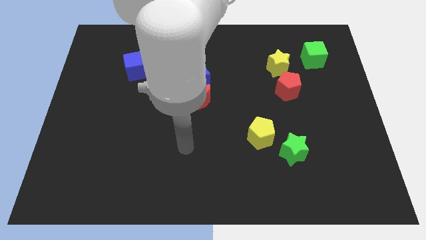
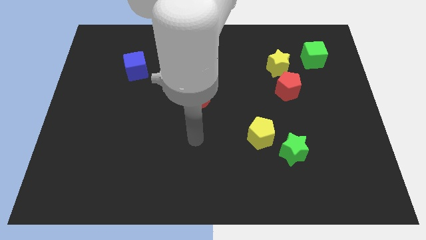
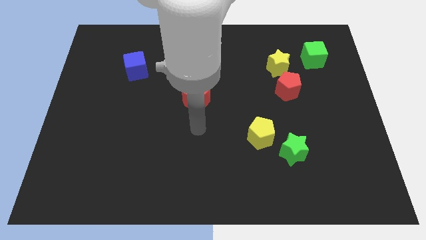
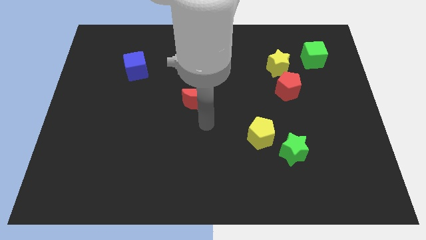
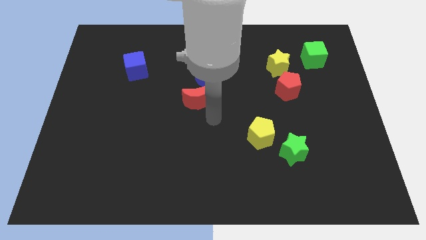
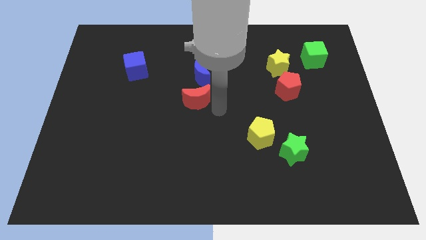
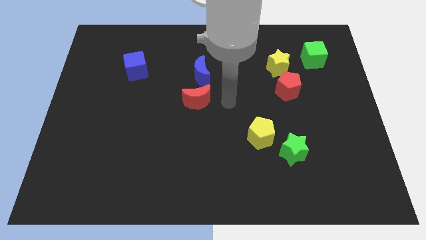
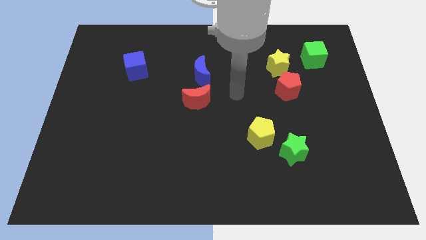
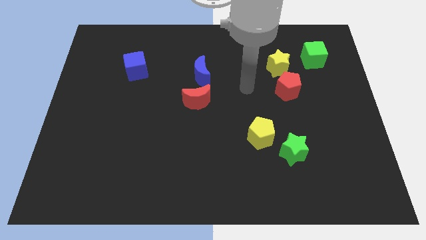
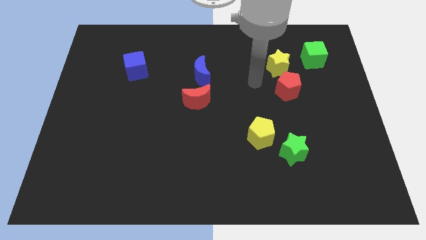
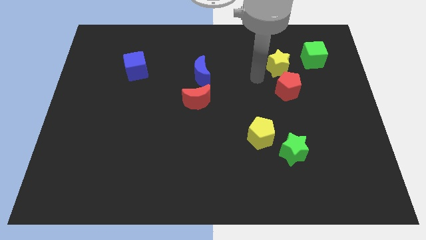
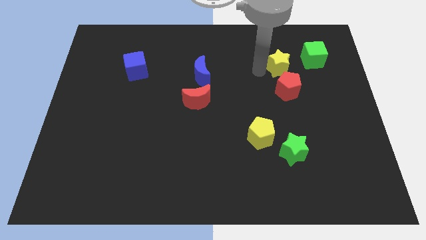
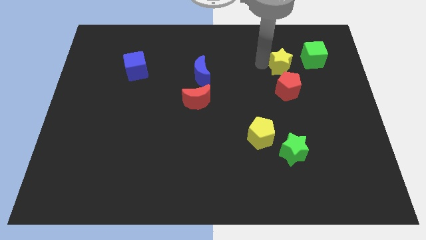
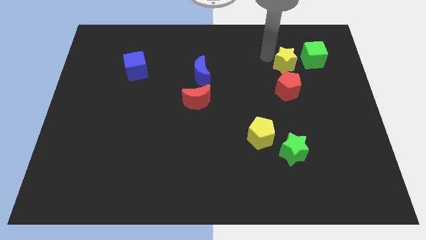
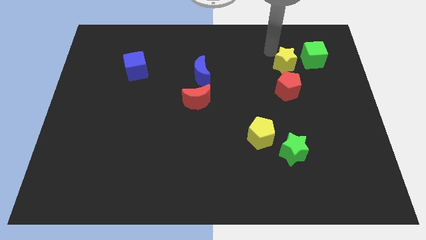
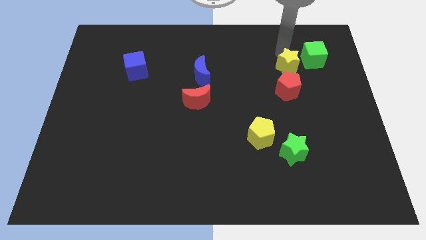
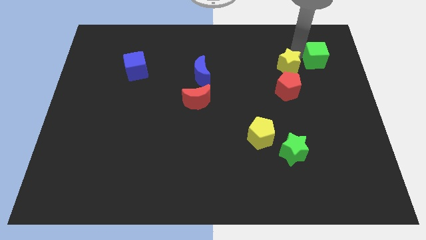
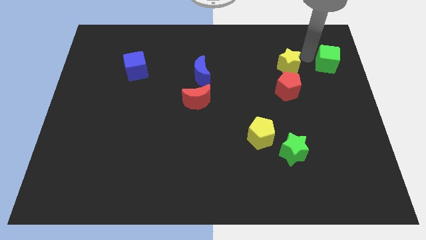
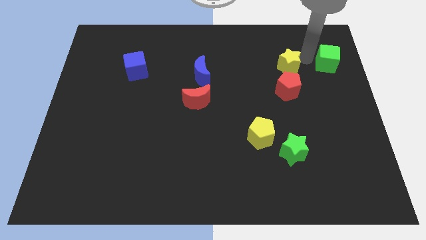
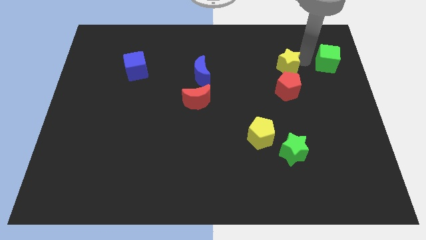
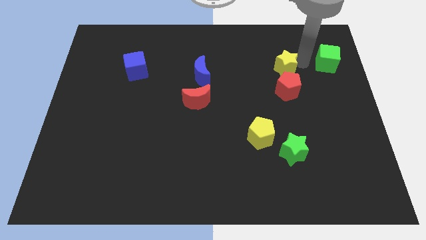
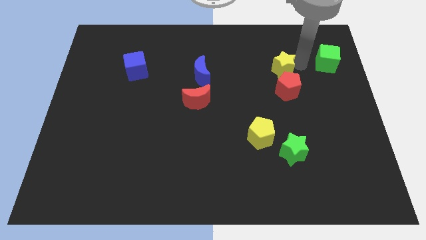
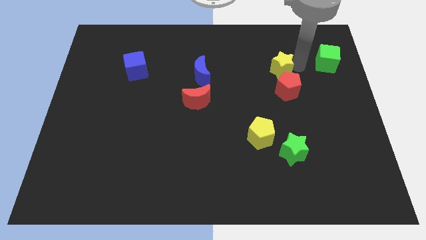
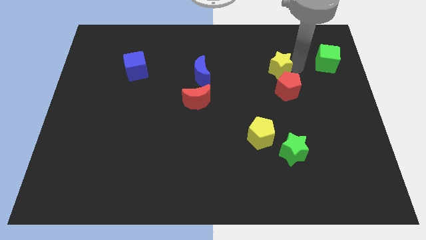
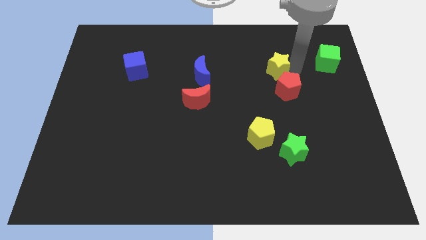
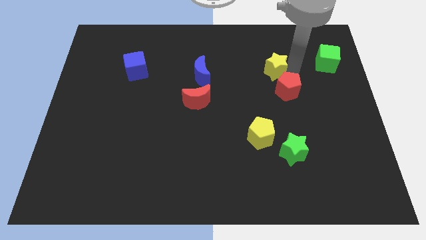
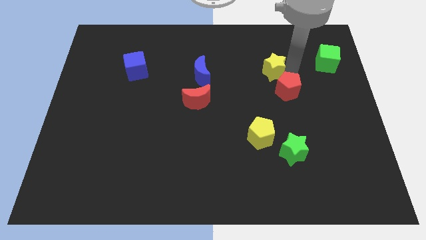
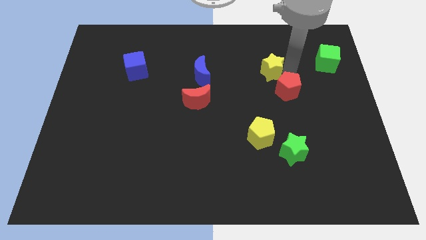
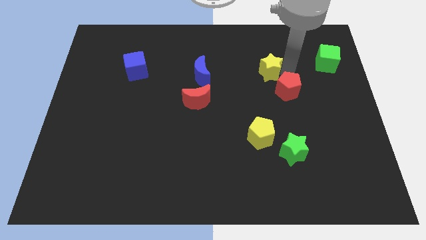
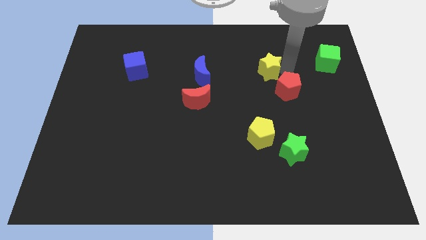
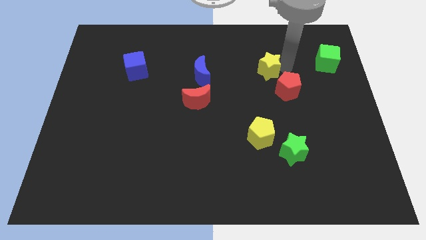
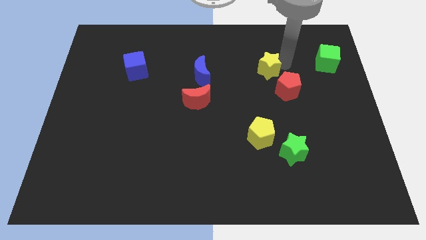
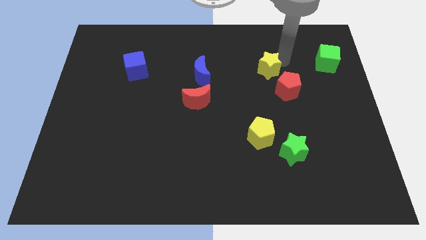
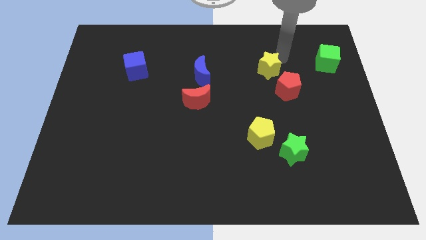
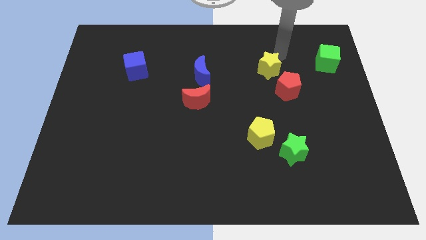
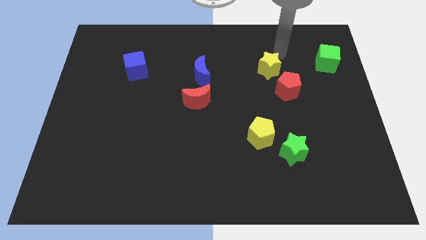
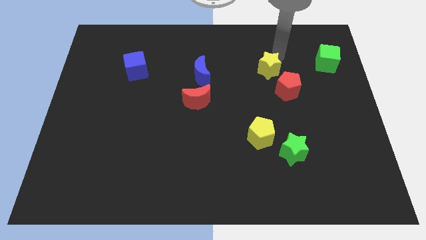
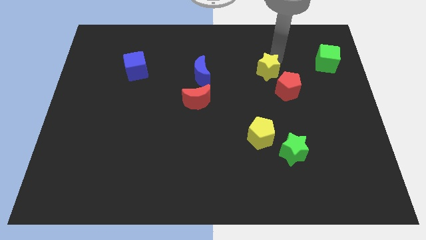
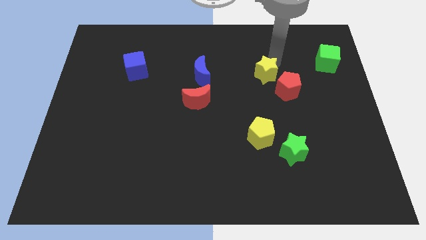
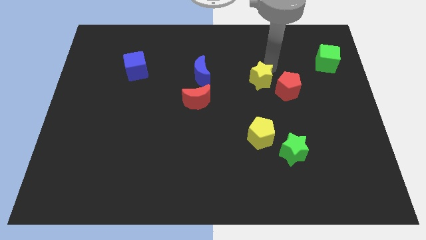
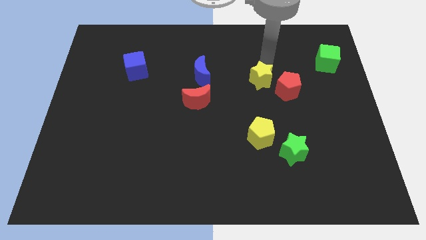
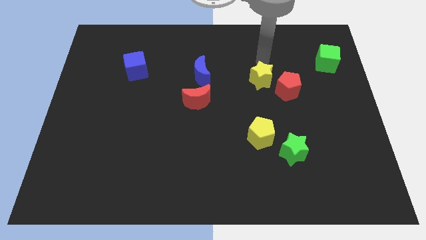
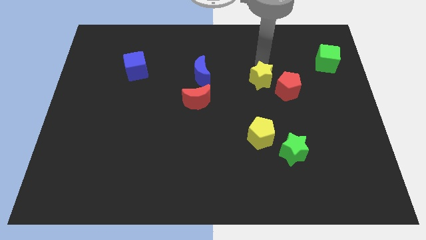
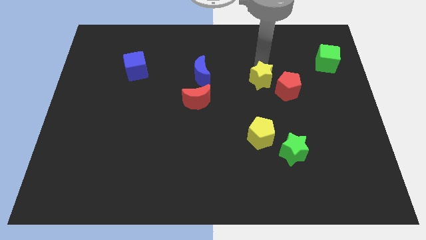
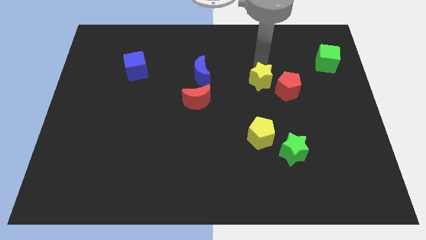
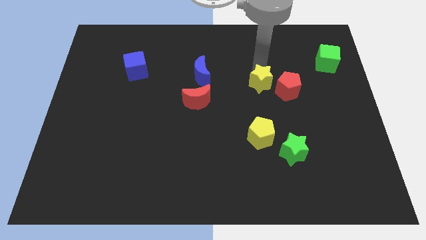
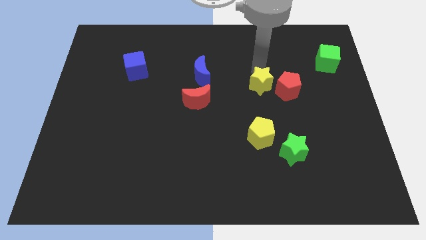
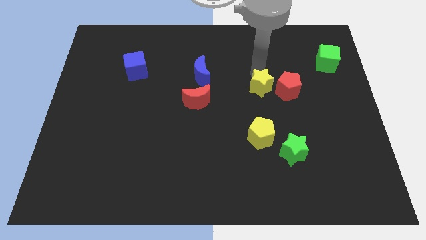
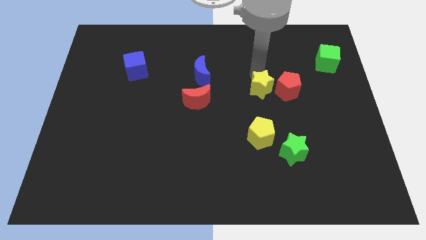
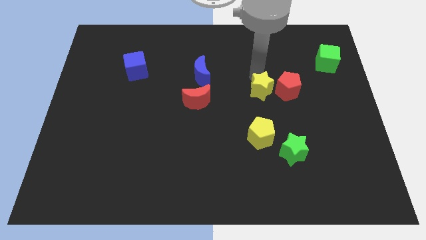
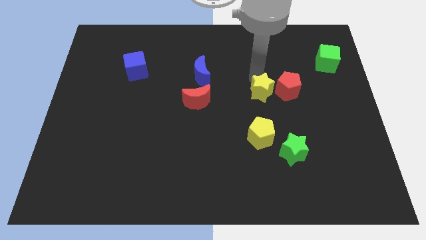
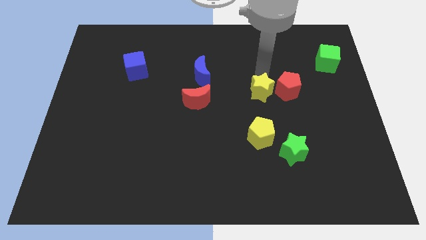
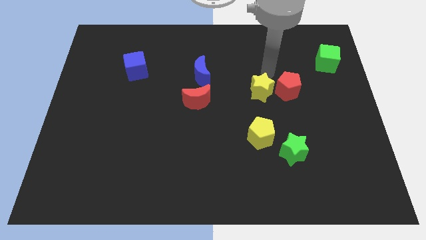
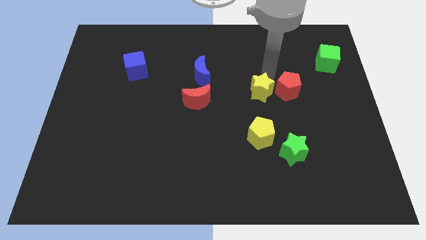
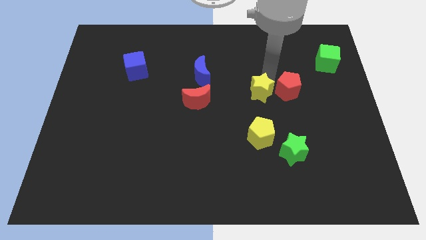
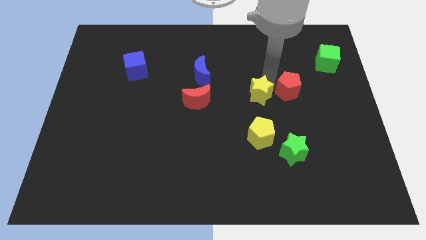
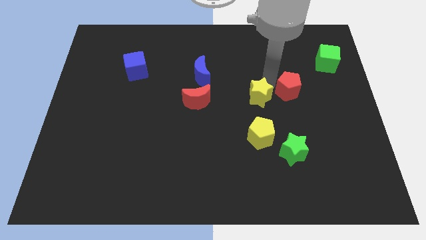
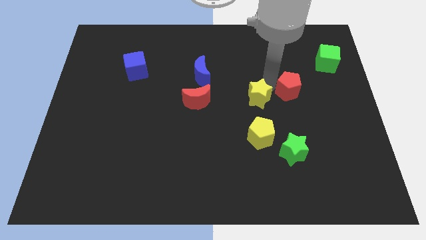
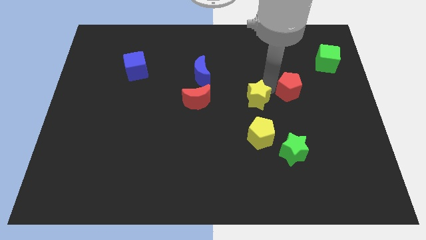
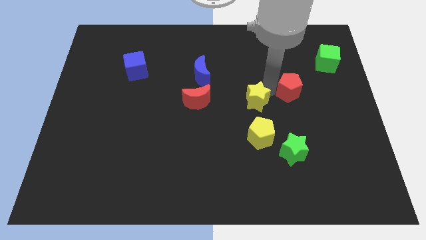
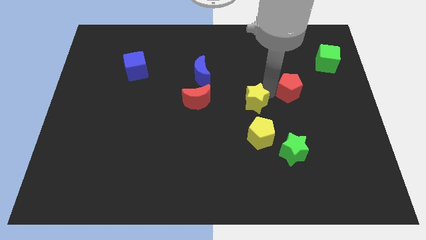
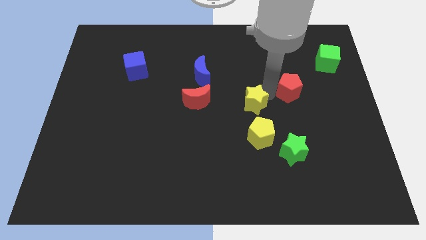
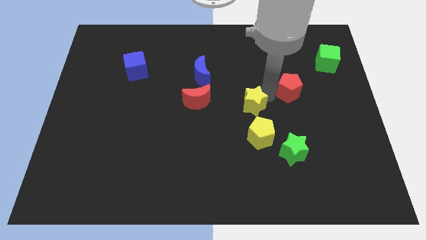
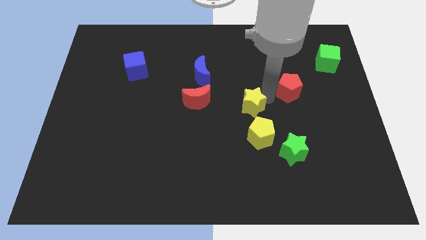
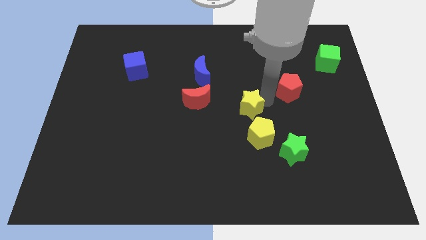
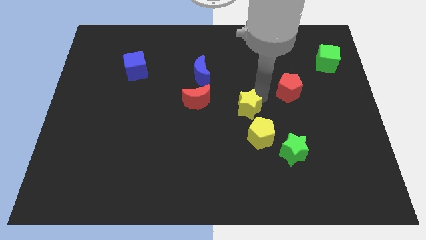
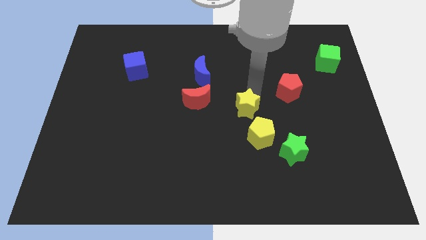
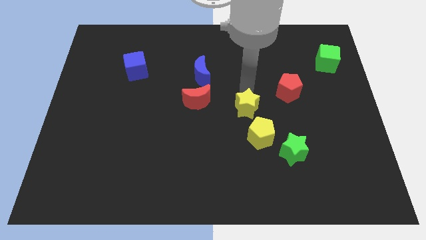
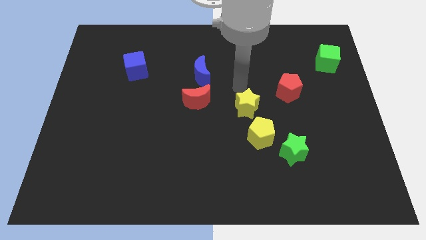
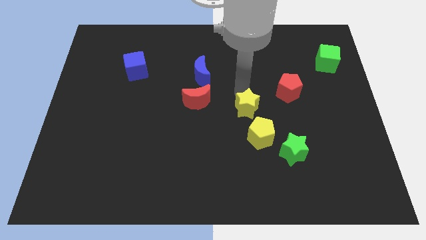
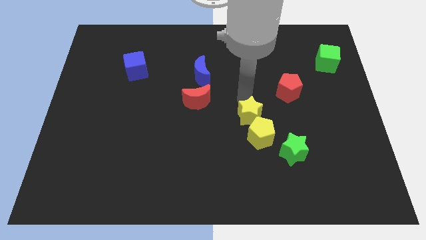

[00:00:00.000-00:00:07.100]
move the yellow star close to the yellow pentagon

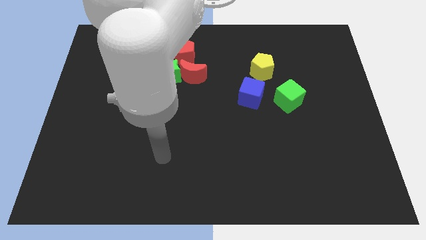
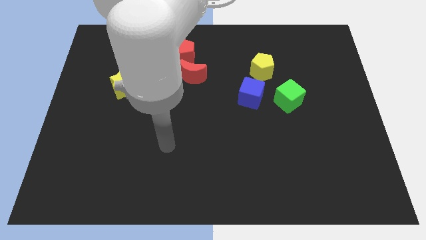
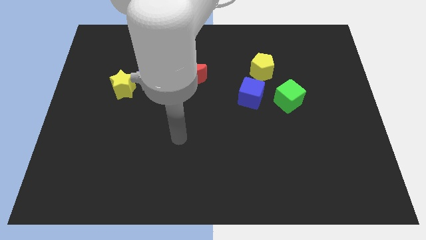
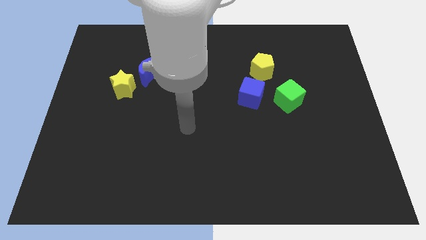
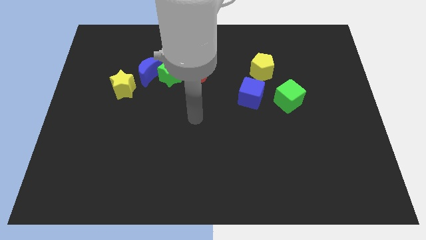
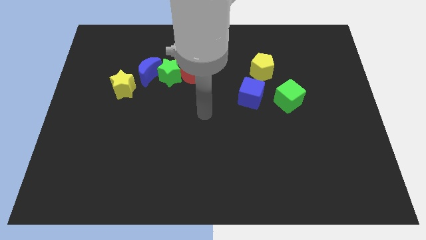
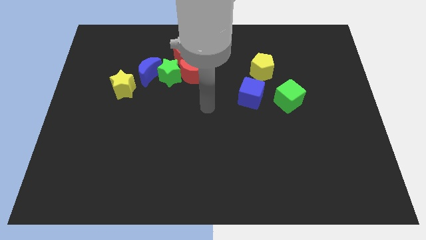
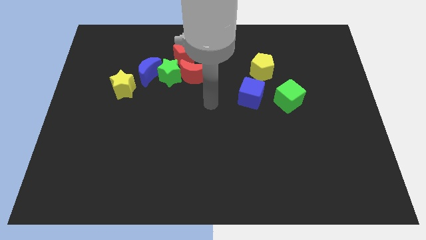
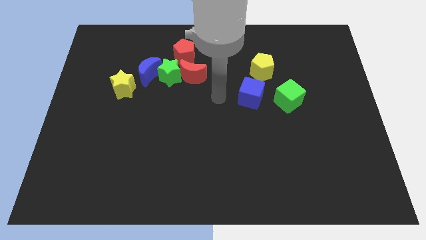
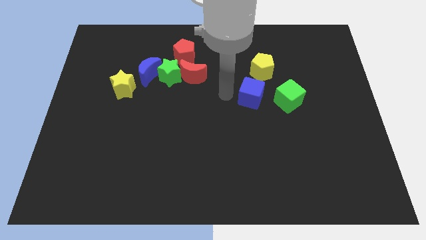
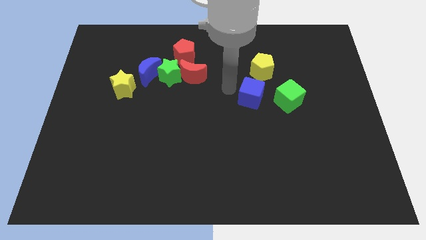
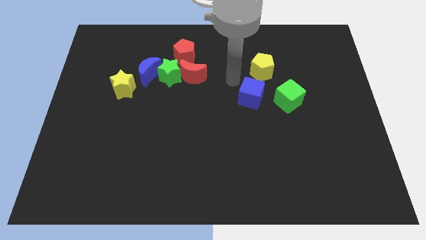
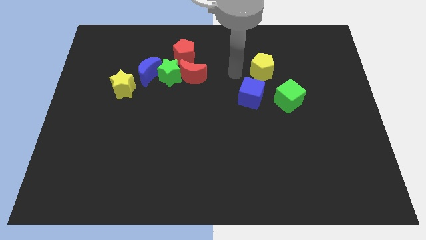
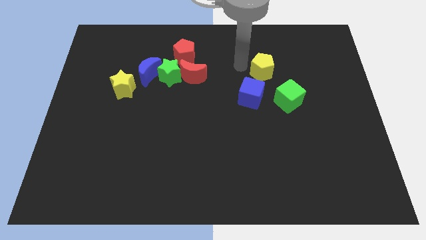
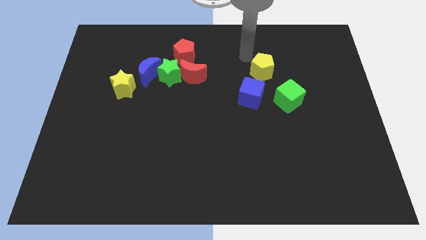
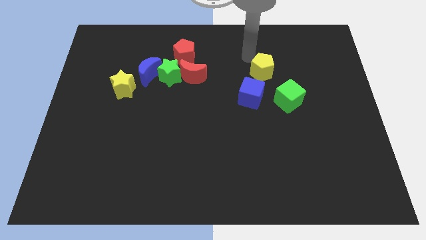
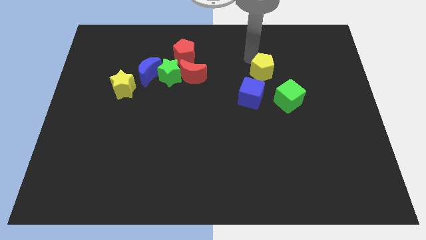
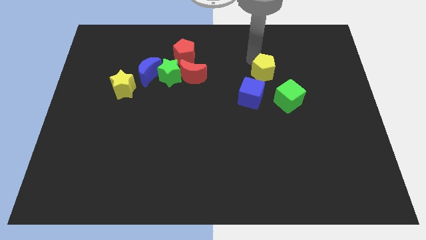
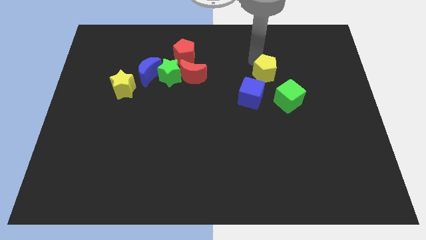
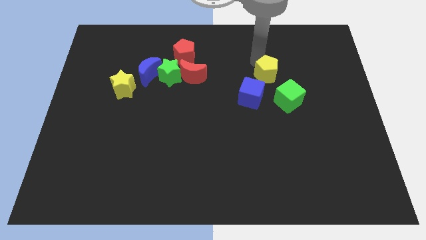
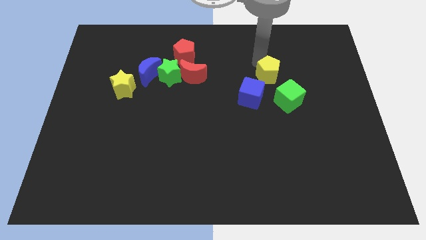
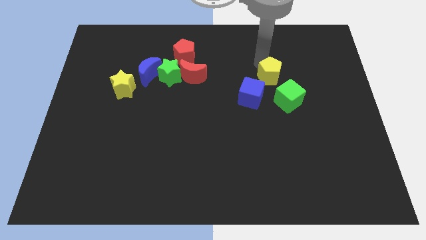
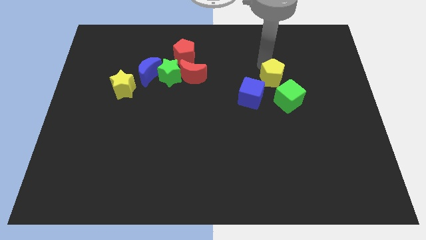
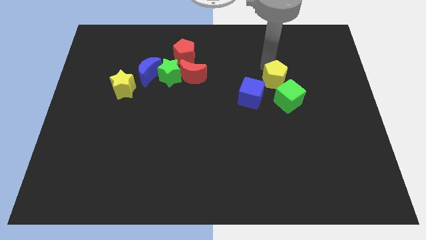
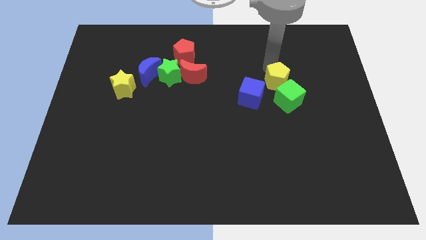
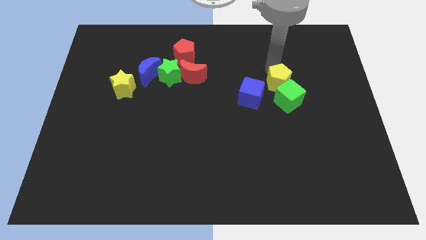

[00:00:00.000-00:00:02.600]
slide the yellow pentagon next to the green cube
